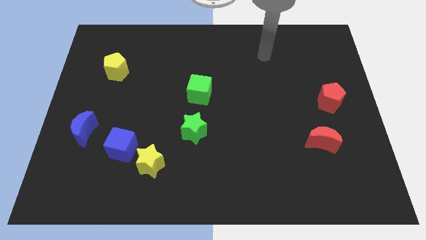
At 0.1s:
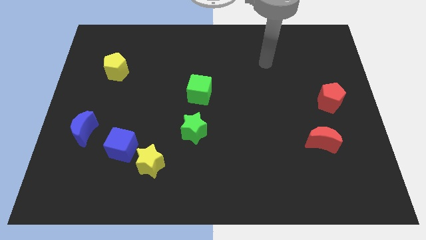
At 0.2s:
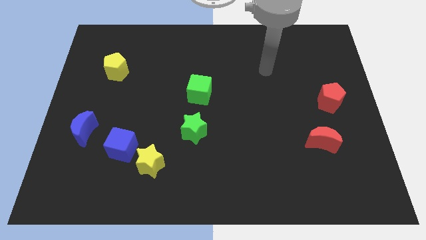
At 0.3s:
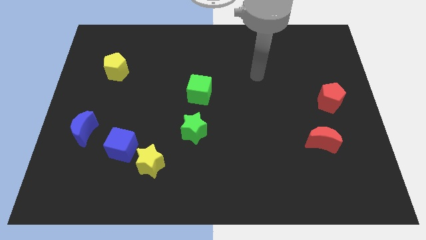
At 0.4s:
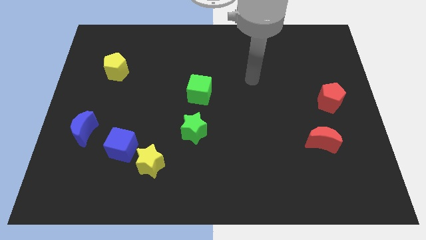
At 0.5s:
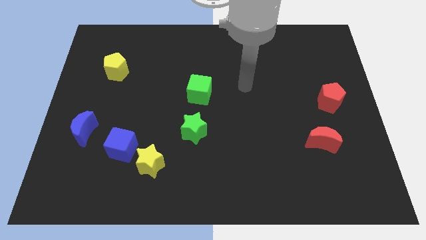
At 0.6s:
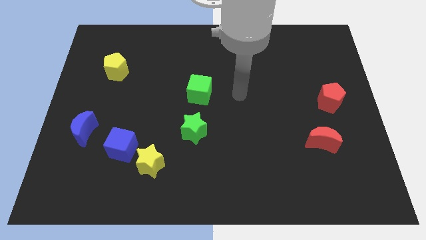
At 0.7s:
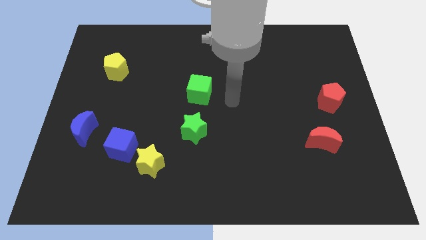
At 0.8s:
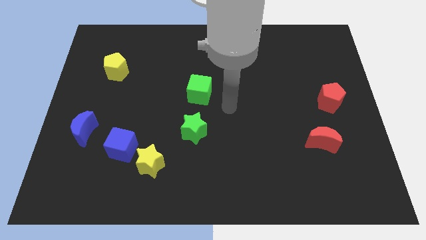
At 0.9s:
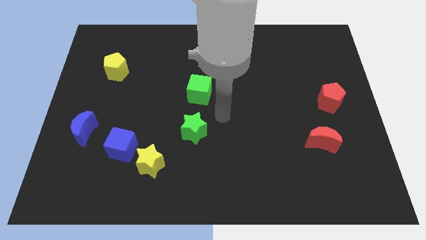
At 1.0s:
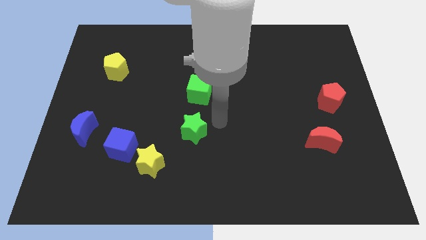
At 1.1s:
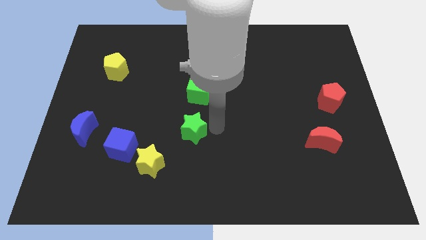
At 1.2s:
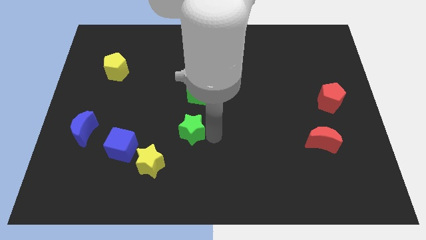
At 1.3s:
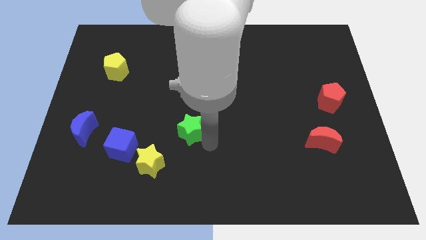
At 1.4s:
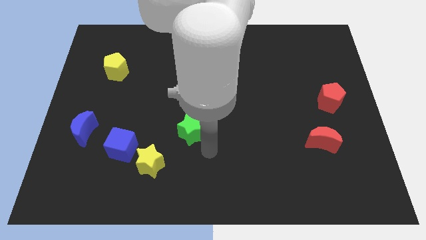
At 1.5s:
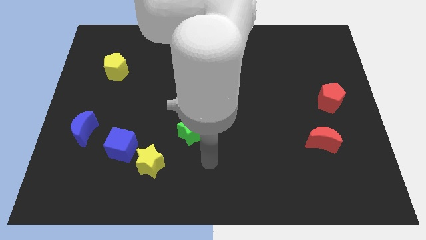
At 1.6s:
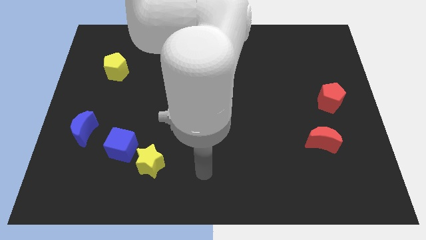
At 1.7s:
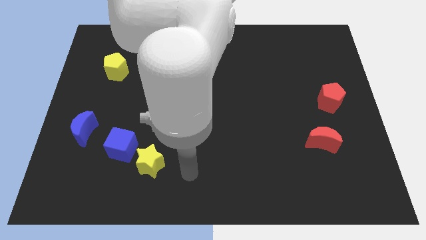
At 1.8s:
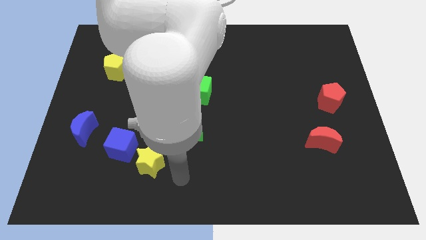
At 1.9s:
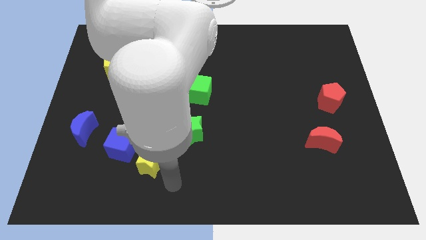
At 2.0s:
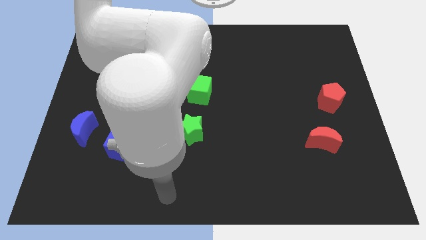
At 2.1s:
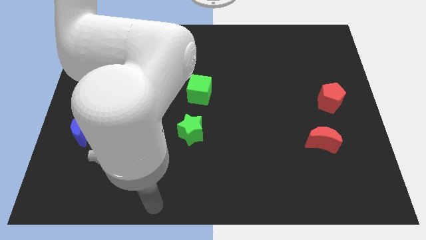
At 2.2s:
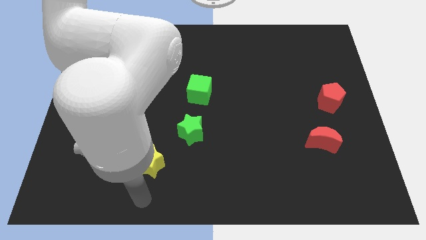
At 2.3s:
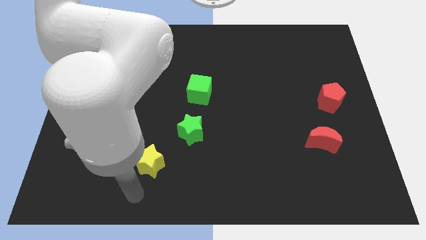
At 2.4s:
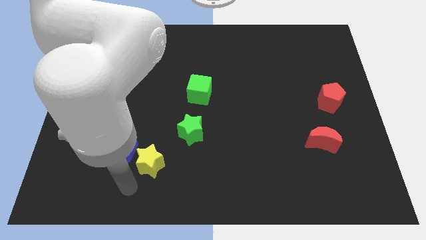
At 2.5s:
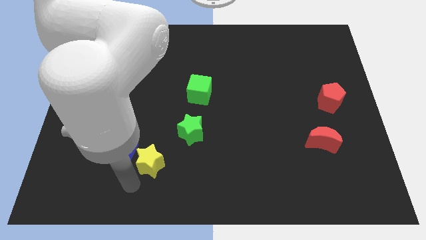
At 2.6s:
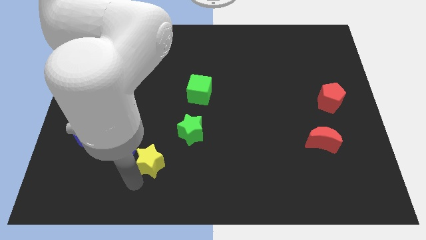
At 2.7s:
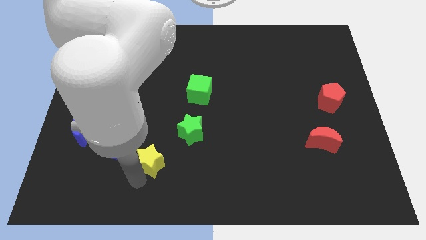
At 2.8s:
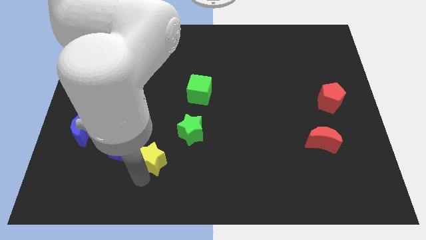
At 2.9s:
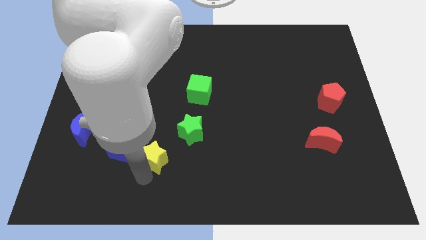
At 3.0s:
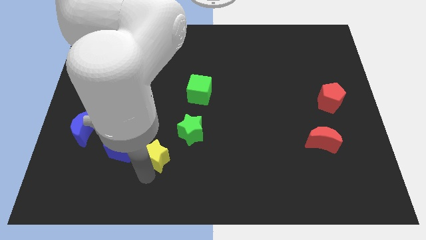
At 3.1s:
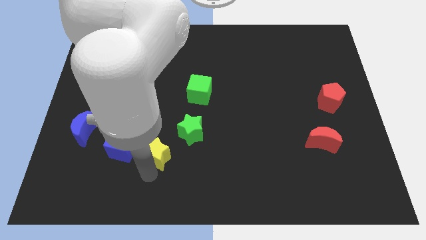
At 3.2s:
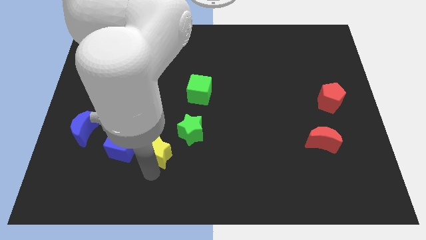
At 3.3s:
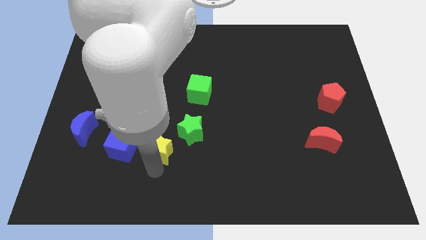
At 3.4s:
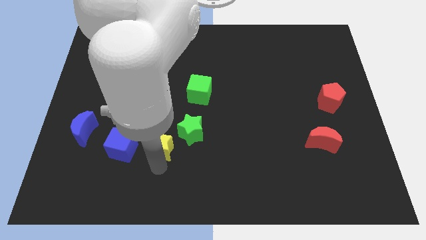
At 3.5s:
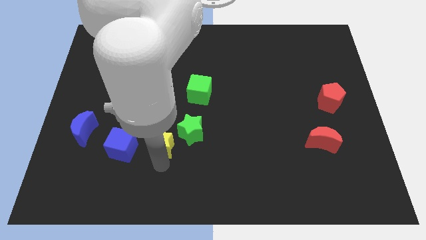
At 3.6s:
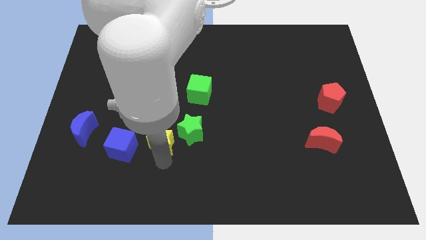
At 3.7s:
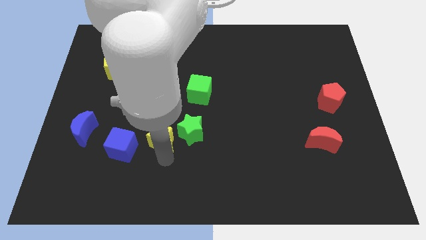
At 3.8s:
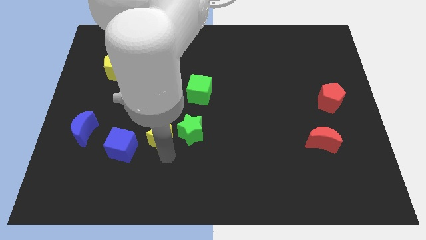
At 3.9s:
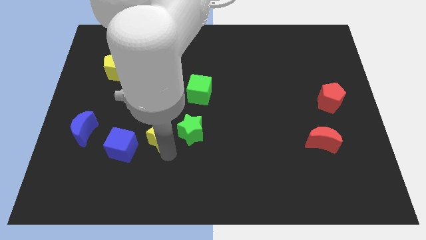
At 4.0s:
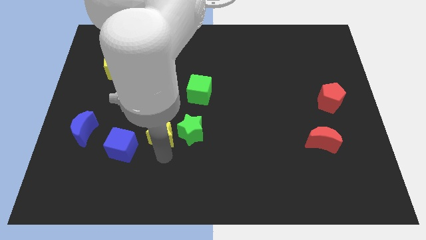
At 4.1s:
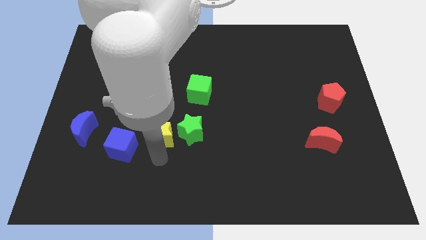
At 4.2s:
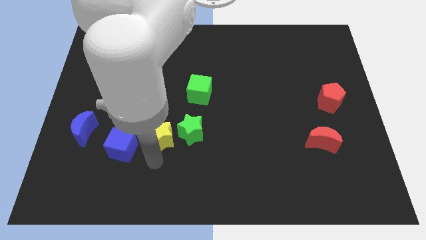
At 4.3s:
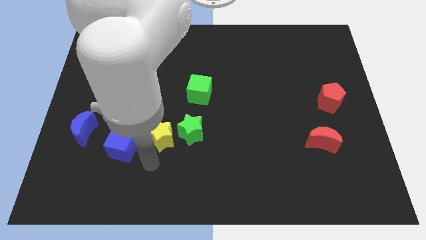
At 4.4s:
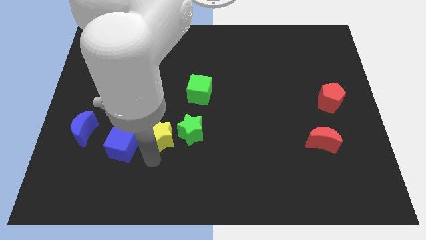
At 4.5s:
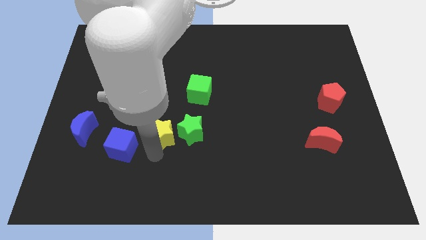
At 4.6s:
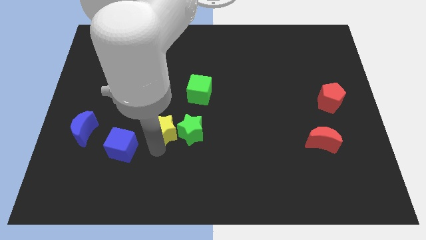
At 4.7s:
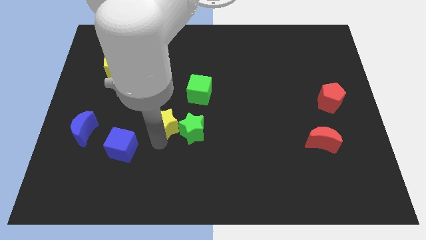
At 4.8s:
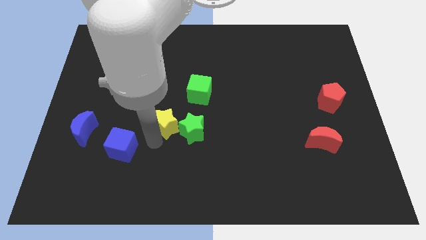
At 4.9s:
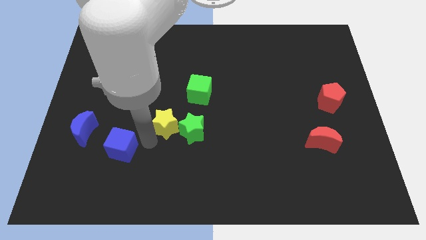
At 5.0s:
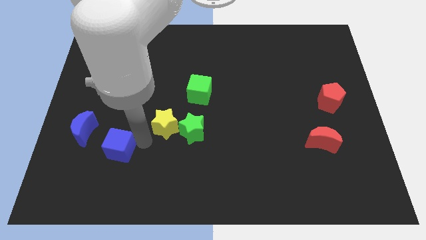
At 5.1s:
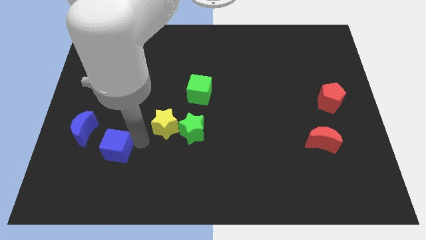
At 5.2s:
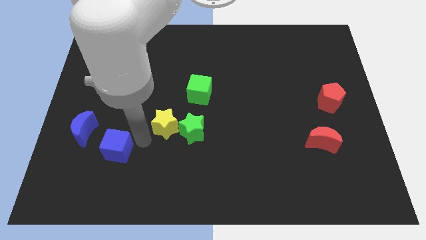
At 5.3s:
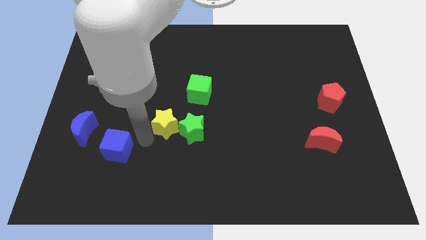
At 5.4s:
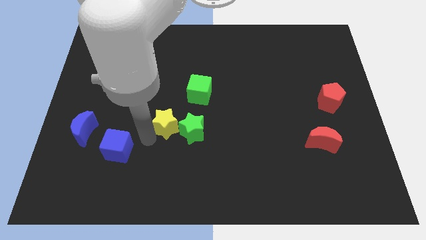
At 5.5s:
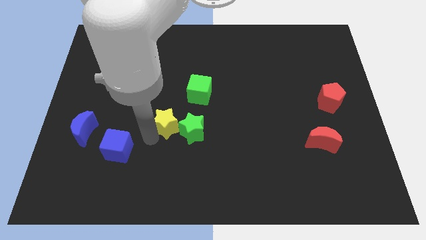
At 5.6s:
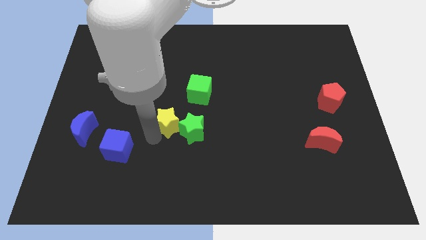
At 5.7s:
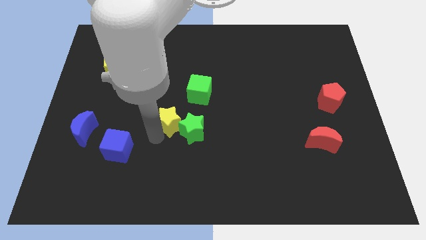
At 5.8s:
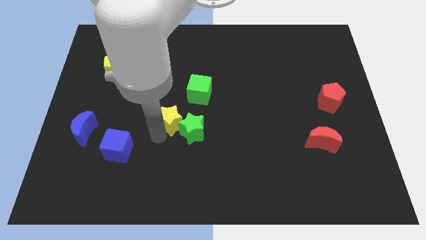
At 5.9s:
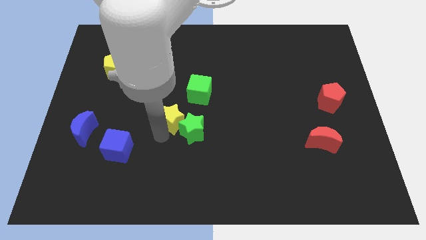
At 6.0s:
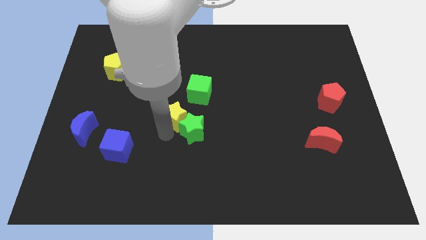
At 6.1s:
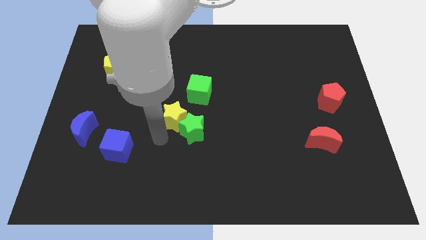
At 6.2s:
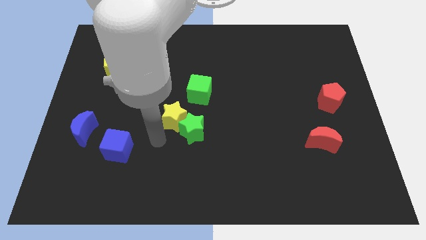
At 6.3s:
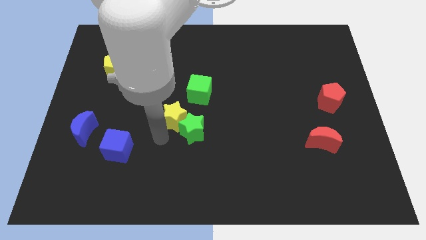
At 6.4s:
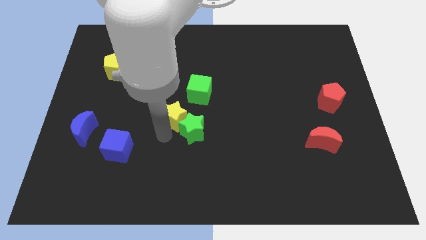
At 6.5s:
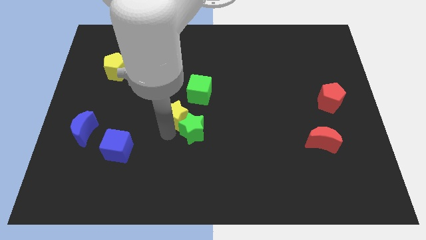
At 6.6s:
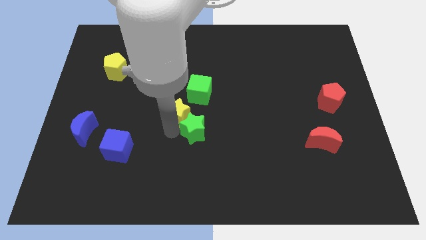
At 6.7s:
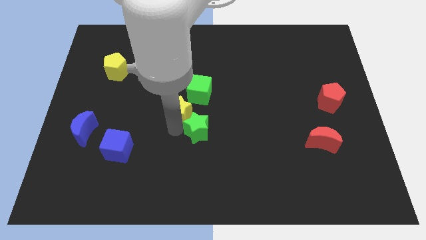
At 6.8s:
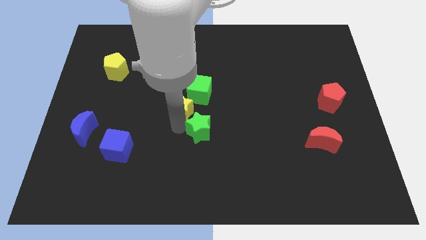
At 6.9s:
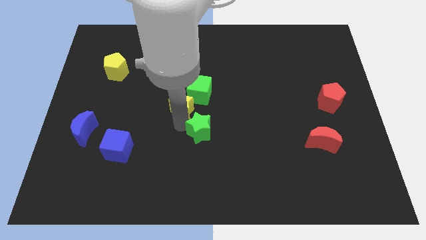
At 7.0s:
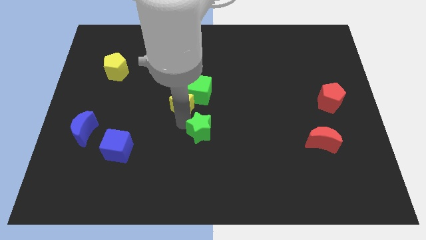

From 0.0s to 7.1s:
put the yellow star close to the green cube

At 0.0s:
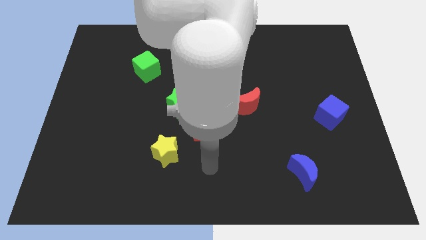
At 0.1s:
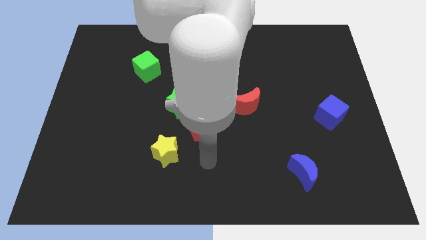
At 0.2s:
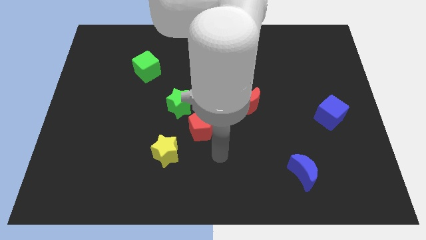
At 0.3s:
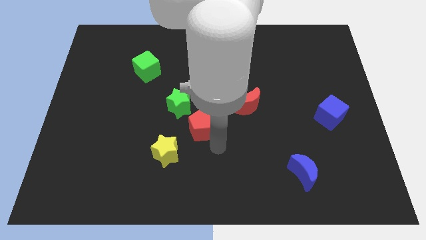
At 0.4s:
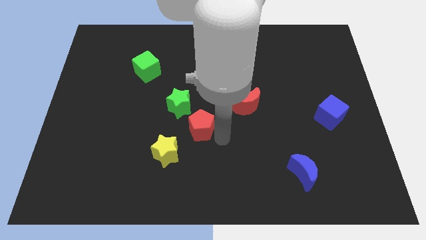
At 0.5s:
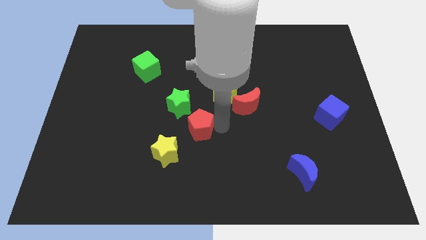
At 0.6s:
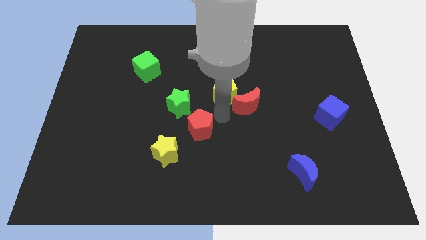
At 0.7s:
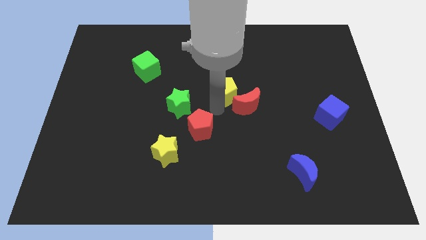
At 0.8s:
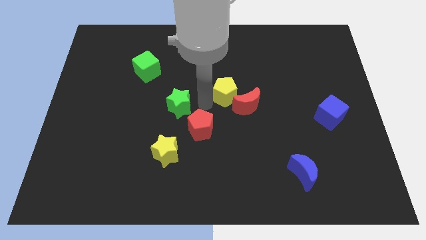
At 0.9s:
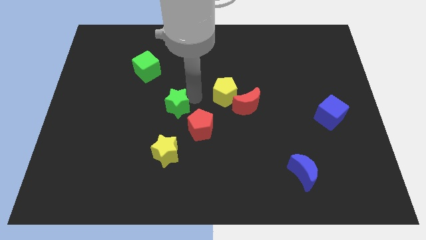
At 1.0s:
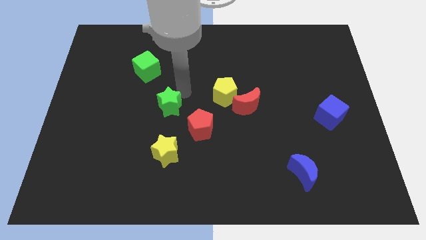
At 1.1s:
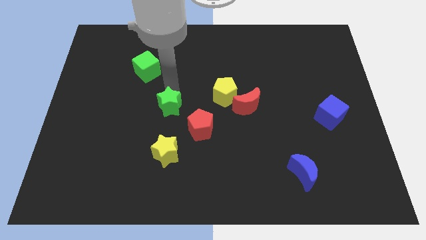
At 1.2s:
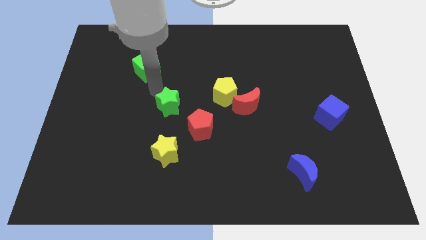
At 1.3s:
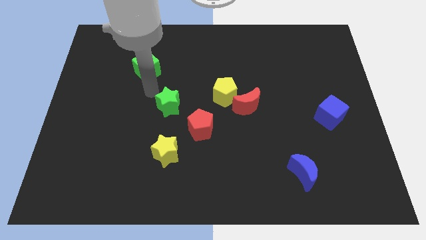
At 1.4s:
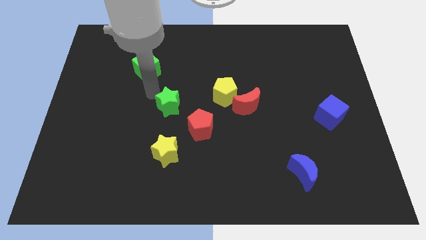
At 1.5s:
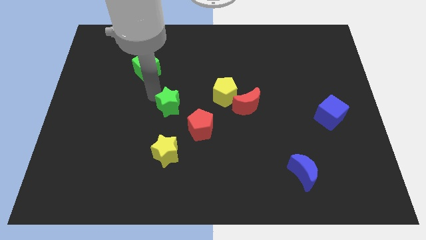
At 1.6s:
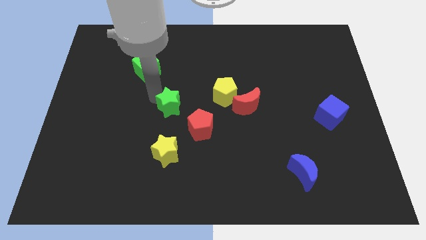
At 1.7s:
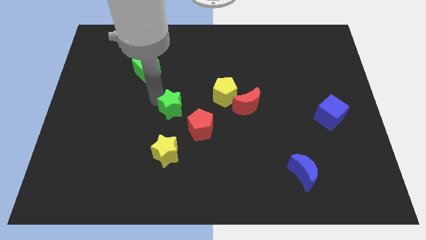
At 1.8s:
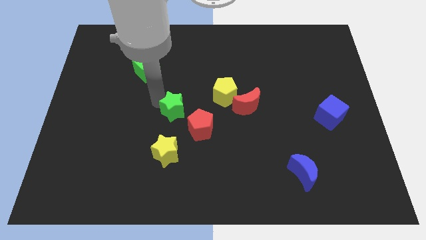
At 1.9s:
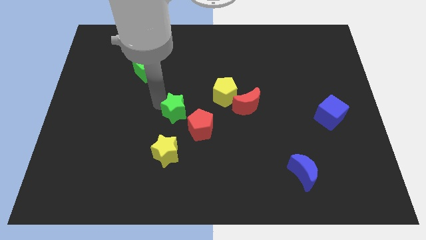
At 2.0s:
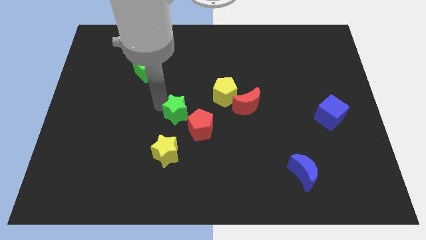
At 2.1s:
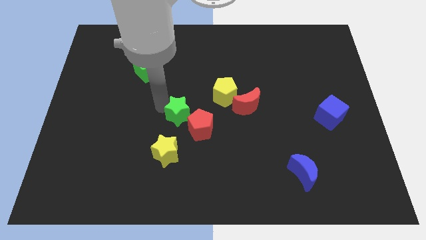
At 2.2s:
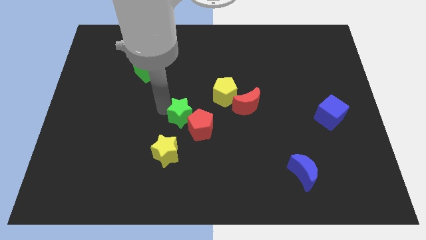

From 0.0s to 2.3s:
put the green star to the red pentagon
